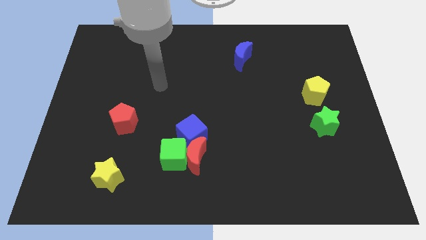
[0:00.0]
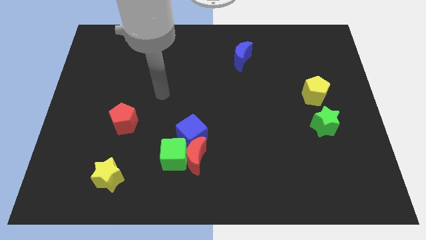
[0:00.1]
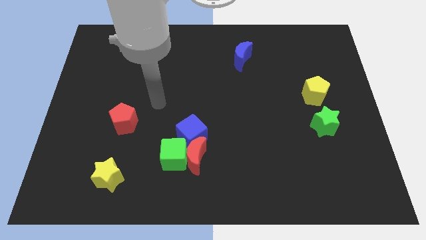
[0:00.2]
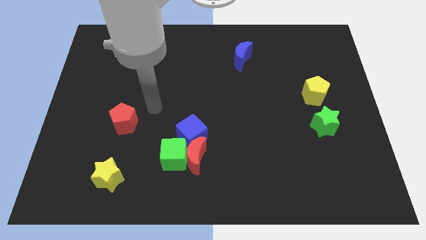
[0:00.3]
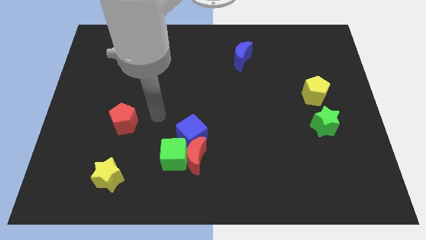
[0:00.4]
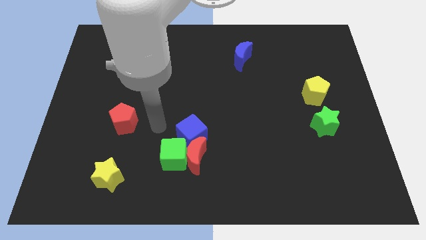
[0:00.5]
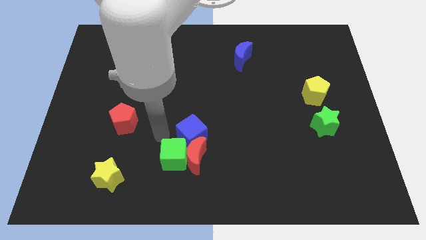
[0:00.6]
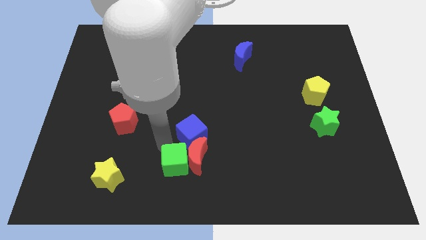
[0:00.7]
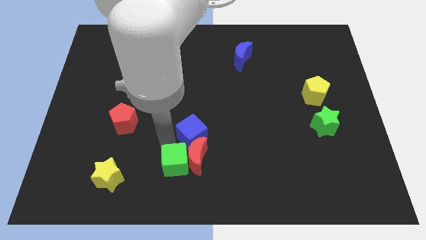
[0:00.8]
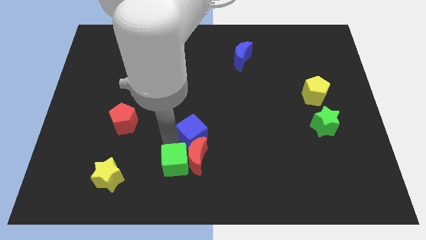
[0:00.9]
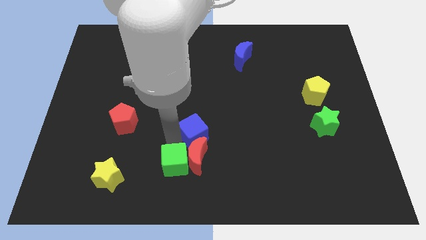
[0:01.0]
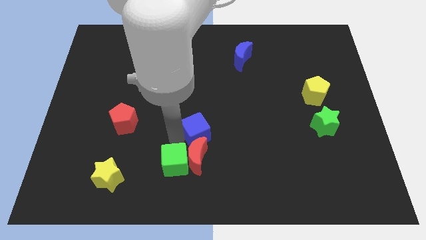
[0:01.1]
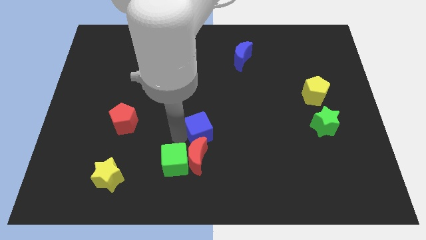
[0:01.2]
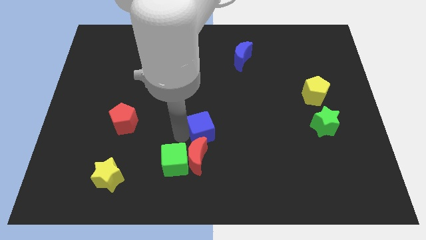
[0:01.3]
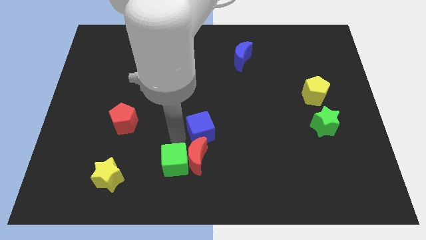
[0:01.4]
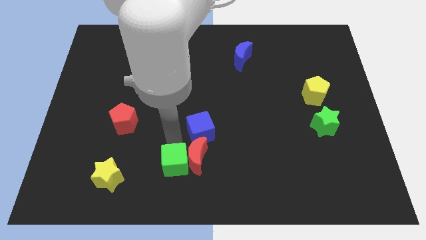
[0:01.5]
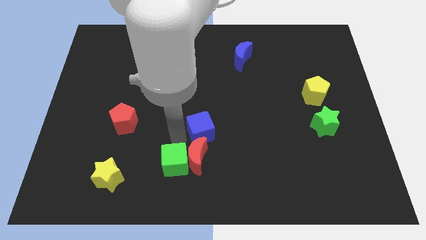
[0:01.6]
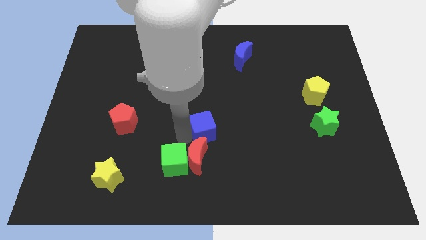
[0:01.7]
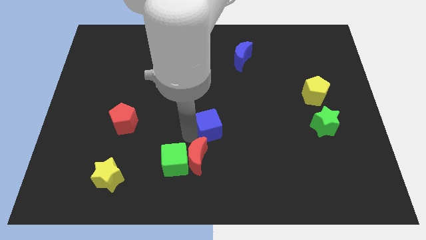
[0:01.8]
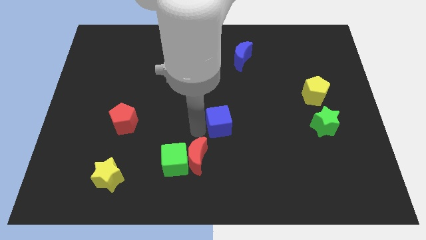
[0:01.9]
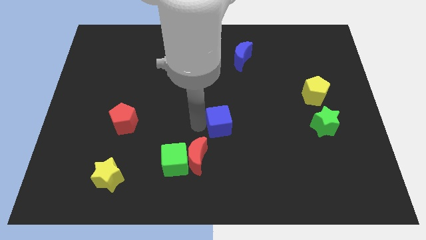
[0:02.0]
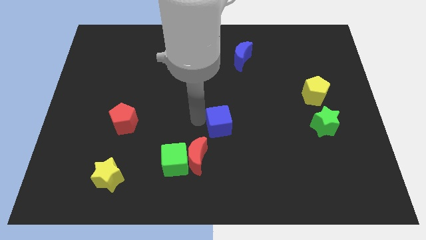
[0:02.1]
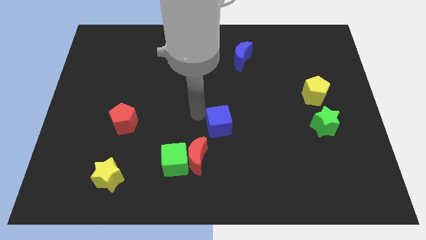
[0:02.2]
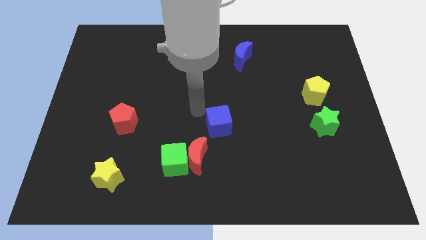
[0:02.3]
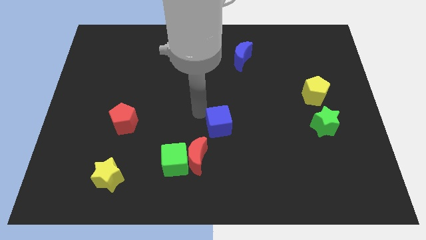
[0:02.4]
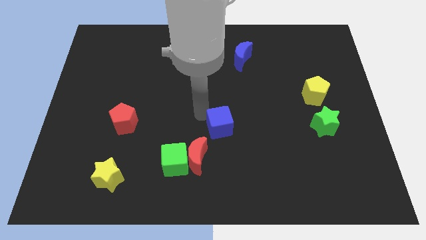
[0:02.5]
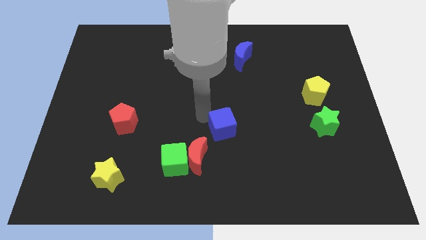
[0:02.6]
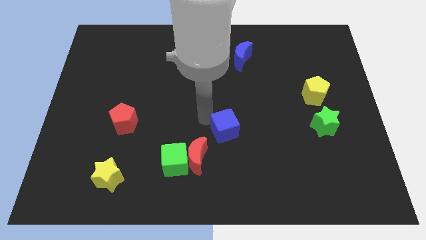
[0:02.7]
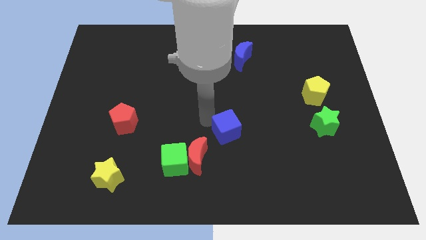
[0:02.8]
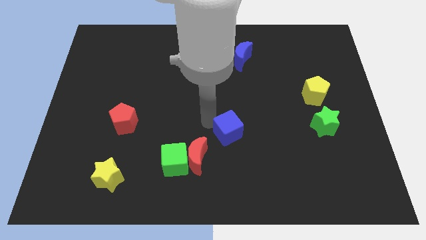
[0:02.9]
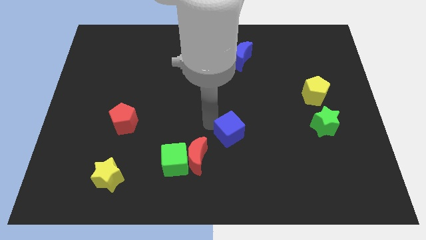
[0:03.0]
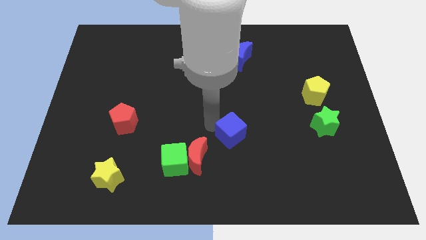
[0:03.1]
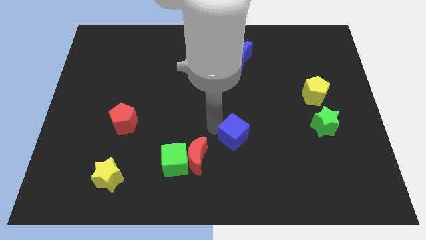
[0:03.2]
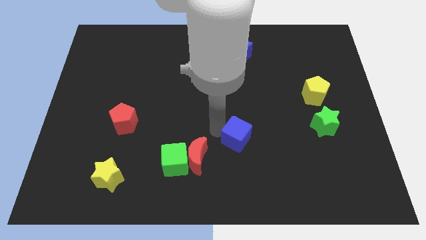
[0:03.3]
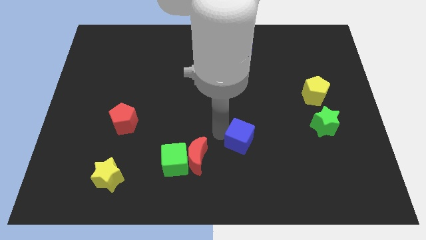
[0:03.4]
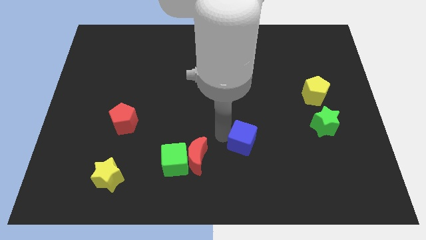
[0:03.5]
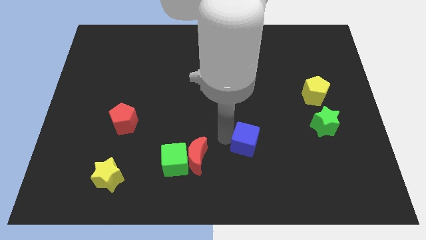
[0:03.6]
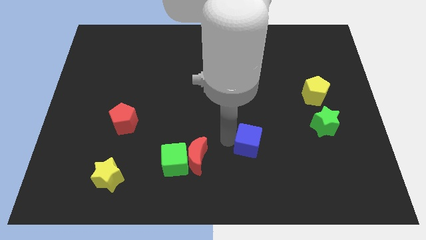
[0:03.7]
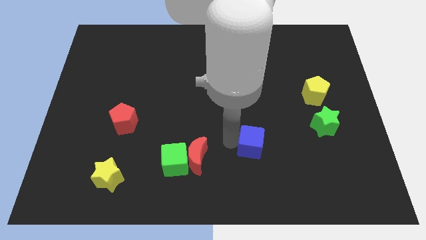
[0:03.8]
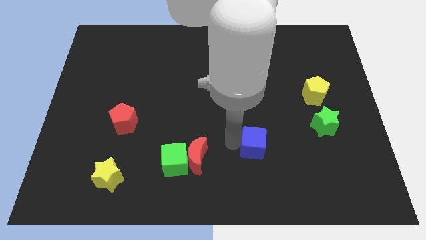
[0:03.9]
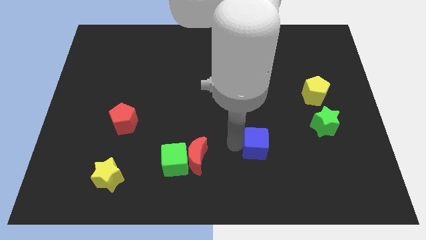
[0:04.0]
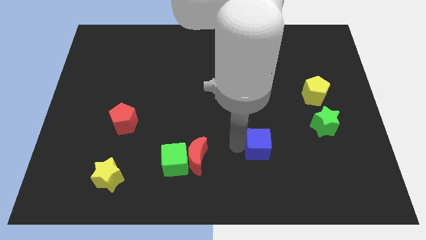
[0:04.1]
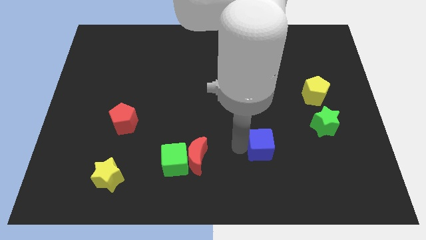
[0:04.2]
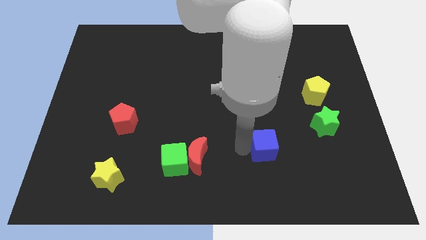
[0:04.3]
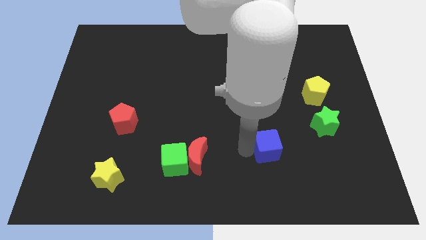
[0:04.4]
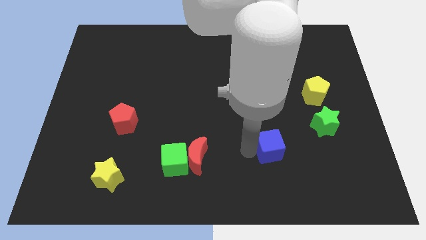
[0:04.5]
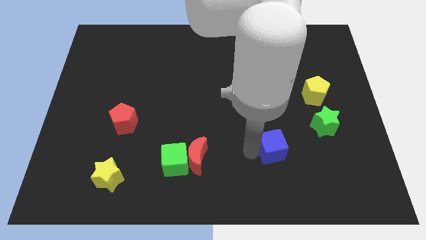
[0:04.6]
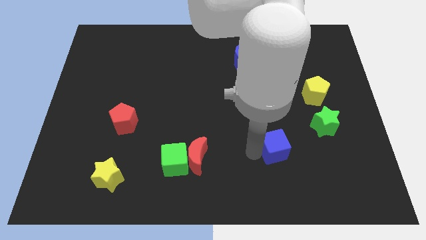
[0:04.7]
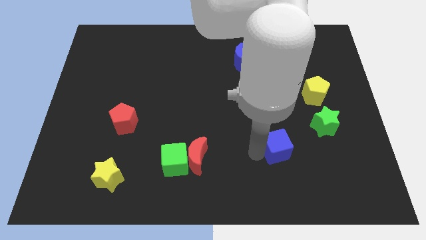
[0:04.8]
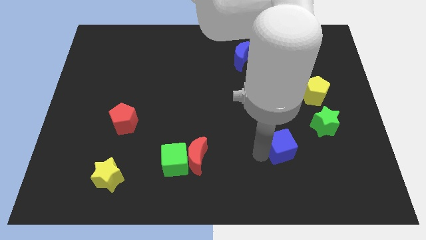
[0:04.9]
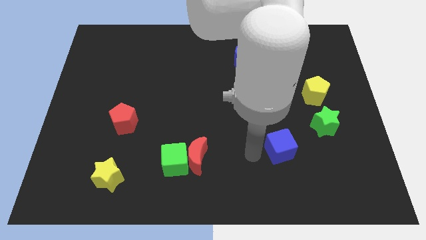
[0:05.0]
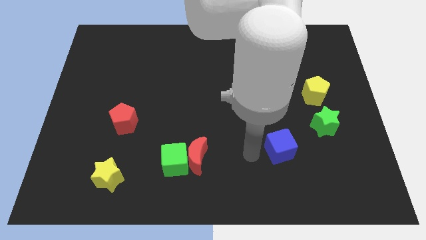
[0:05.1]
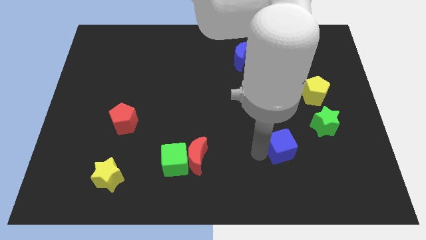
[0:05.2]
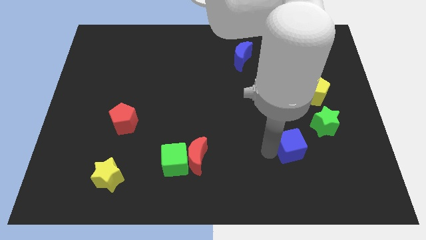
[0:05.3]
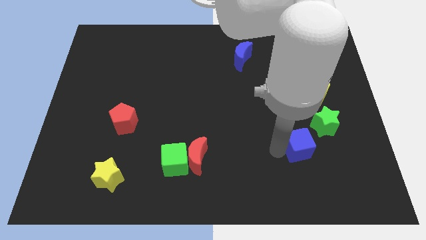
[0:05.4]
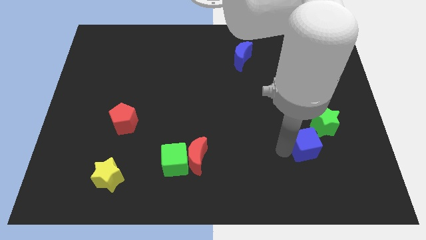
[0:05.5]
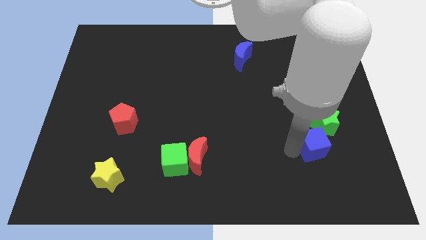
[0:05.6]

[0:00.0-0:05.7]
move the blue cube to the bottom side of the yellow pentagon

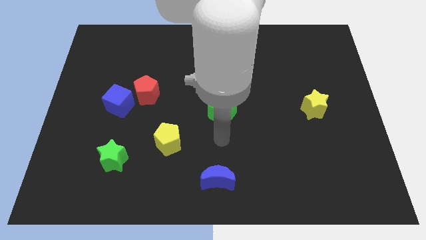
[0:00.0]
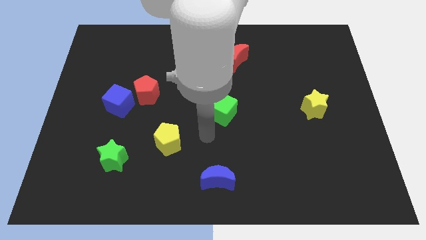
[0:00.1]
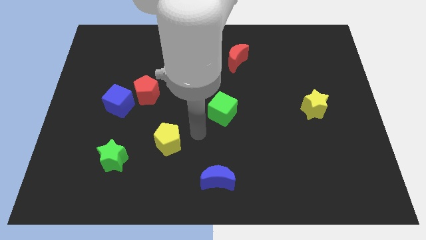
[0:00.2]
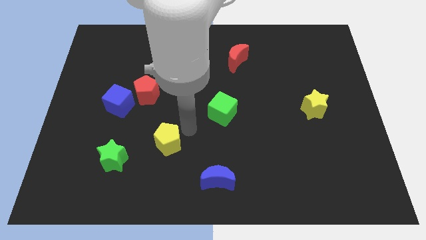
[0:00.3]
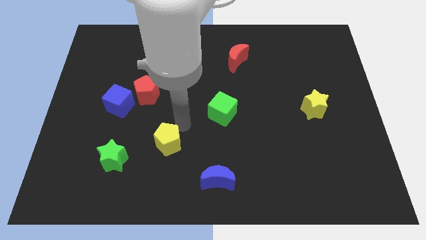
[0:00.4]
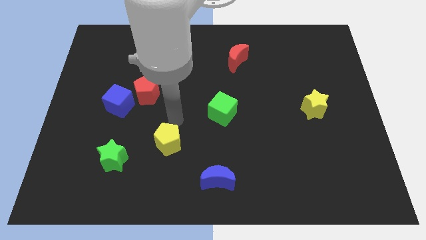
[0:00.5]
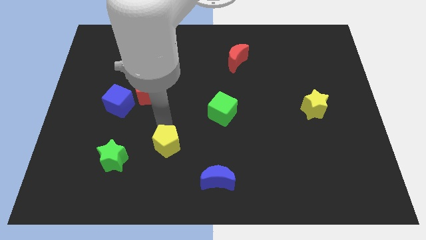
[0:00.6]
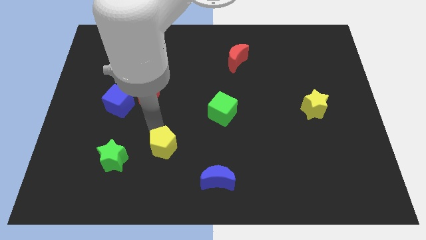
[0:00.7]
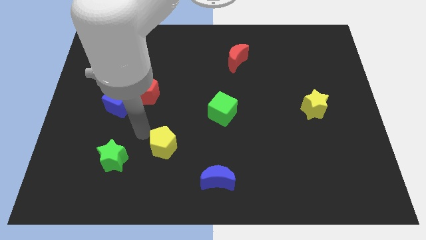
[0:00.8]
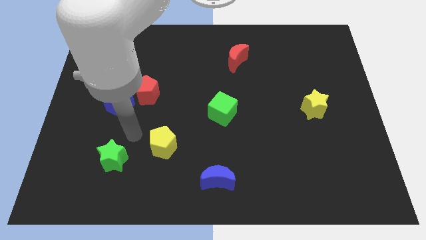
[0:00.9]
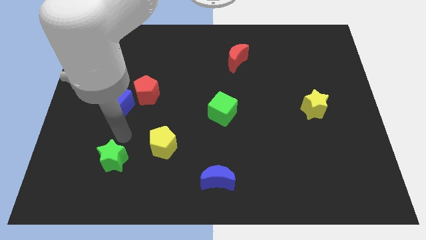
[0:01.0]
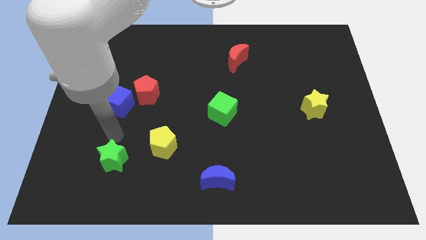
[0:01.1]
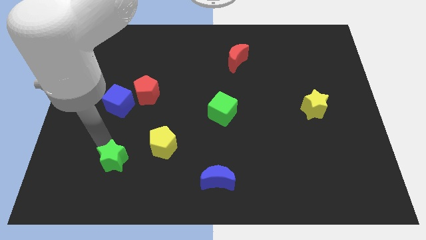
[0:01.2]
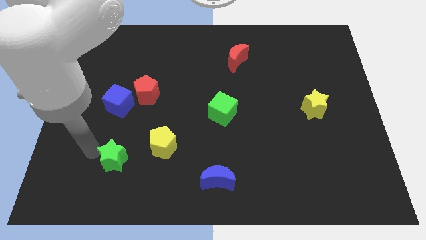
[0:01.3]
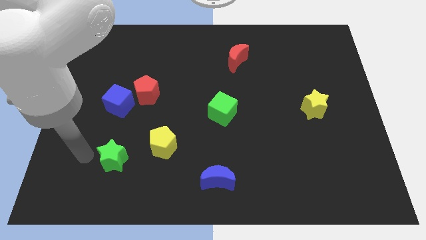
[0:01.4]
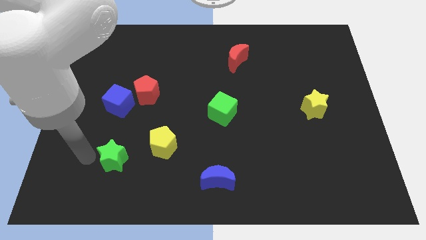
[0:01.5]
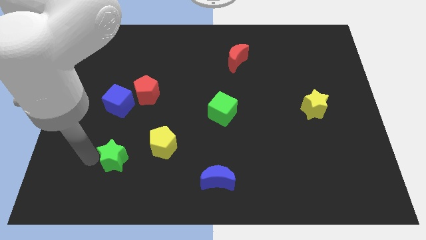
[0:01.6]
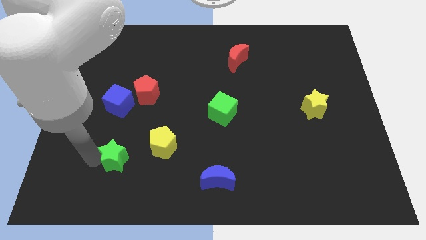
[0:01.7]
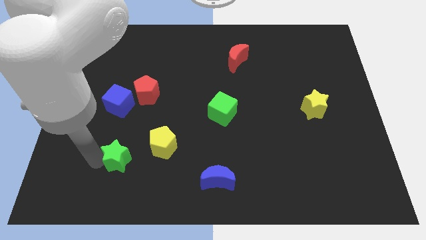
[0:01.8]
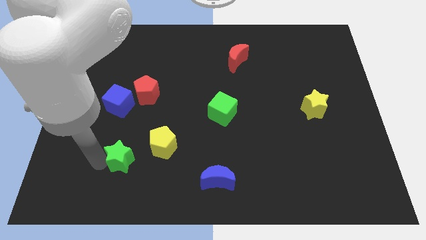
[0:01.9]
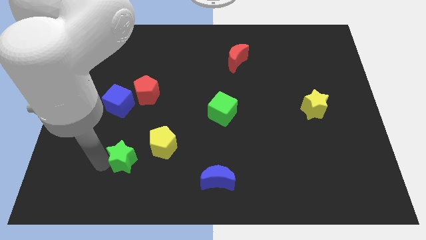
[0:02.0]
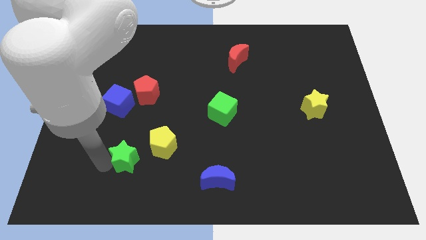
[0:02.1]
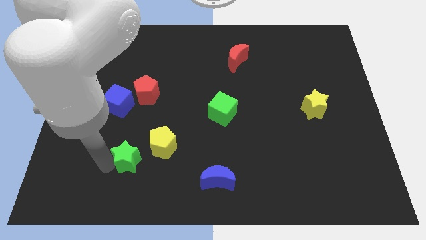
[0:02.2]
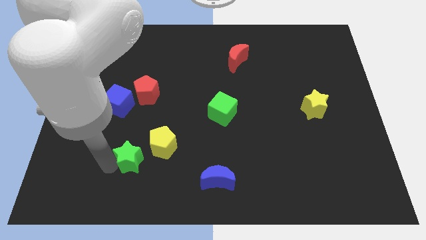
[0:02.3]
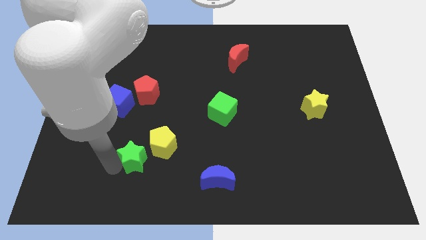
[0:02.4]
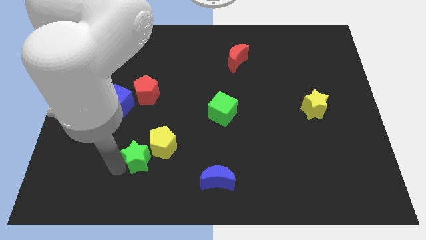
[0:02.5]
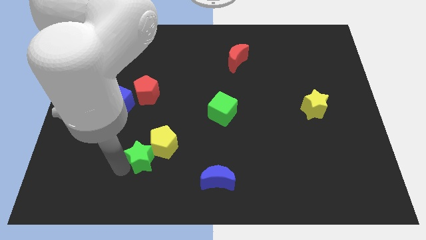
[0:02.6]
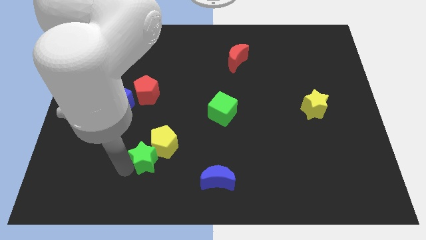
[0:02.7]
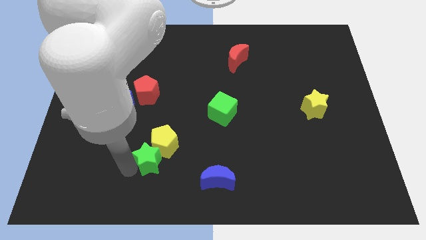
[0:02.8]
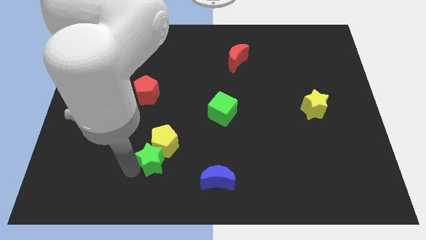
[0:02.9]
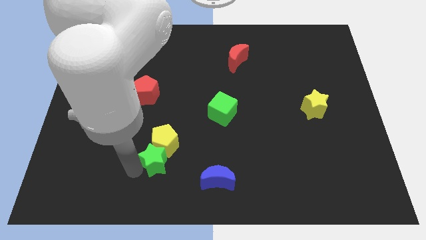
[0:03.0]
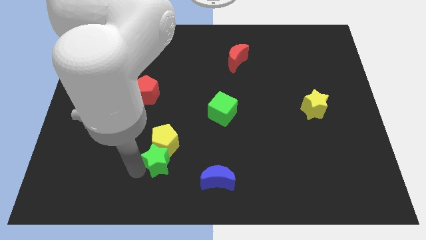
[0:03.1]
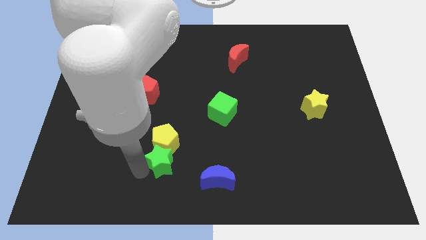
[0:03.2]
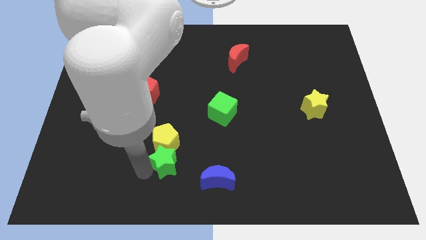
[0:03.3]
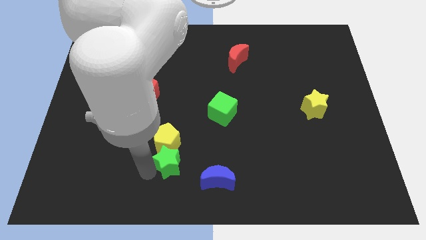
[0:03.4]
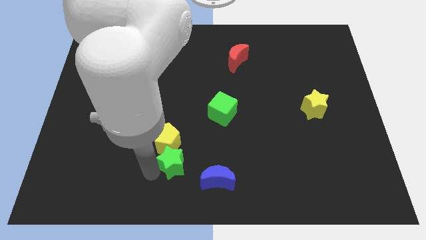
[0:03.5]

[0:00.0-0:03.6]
slide the green star diagonally up and to the left of the blue moon
